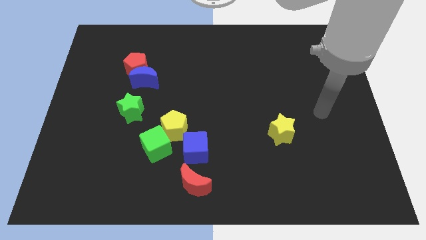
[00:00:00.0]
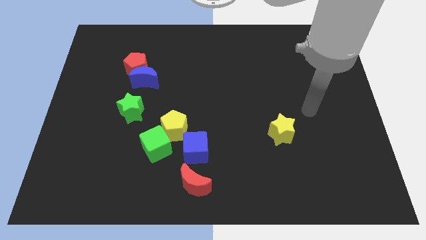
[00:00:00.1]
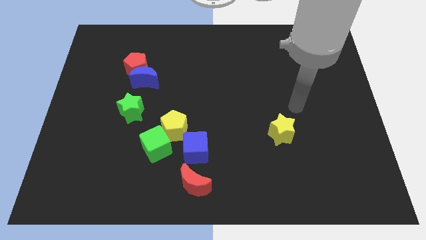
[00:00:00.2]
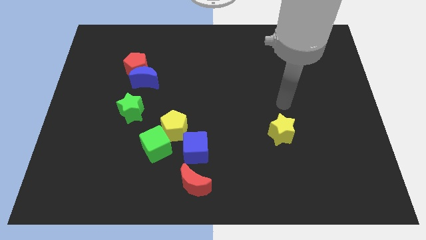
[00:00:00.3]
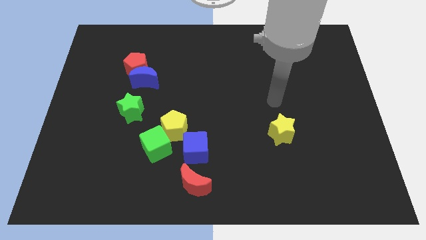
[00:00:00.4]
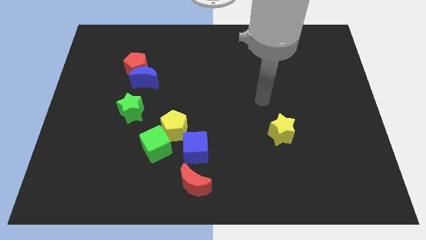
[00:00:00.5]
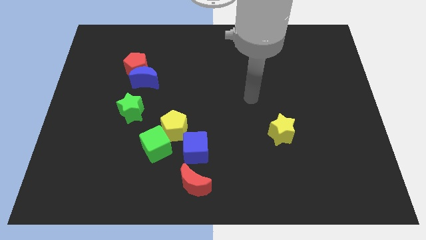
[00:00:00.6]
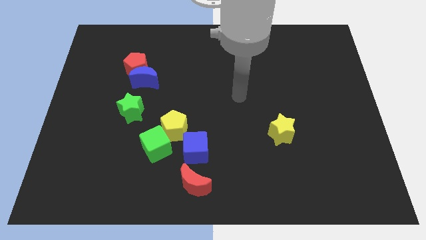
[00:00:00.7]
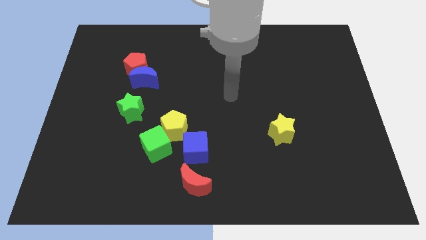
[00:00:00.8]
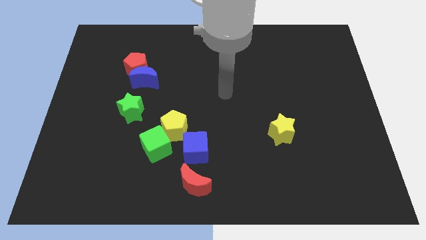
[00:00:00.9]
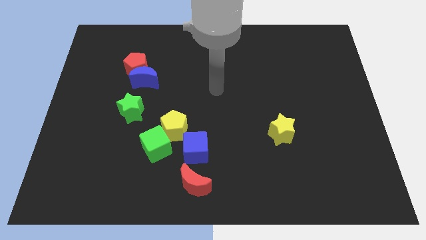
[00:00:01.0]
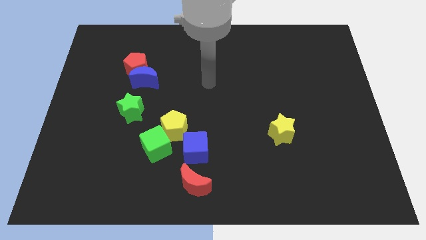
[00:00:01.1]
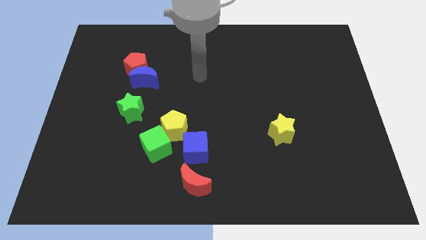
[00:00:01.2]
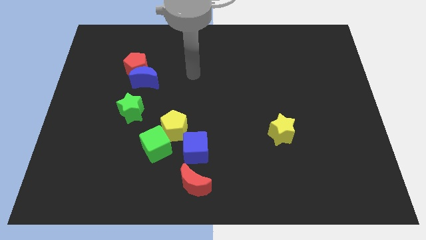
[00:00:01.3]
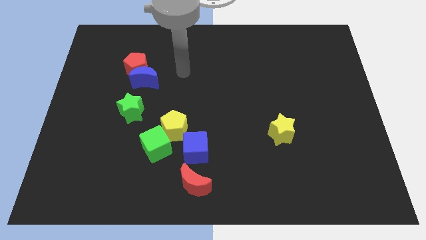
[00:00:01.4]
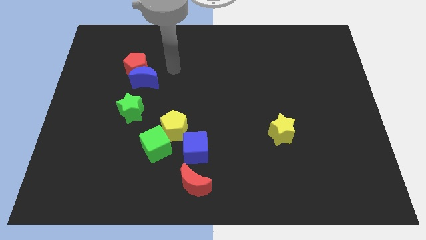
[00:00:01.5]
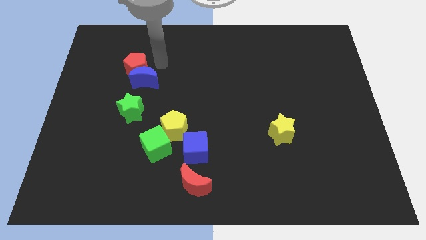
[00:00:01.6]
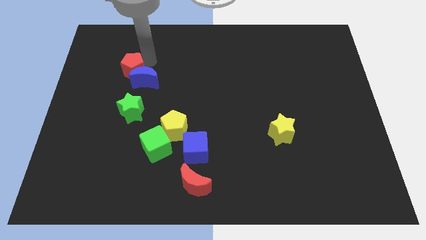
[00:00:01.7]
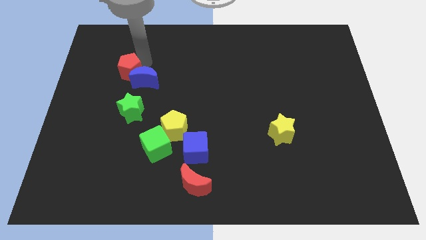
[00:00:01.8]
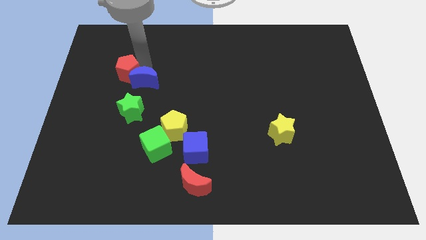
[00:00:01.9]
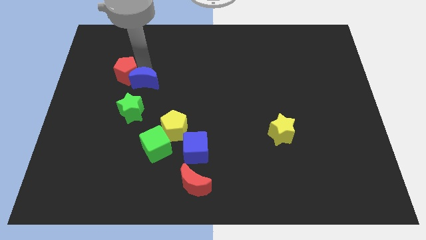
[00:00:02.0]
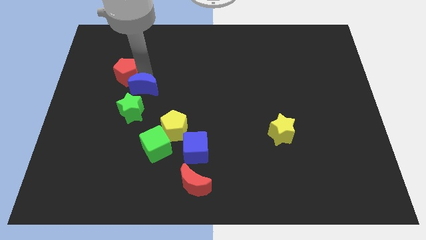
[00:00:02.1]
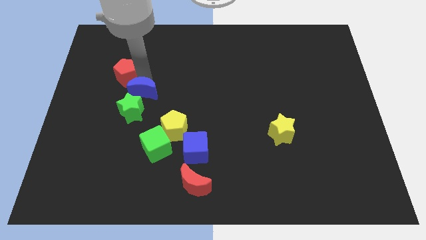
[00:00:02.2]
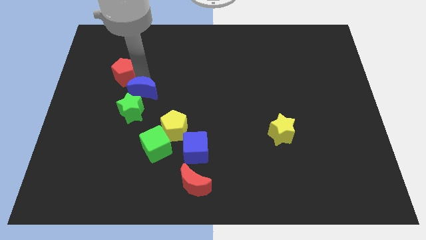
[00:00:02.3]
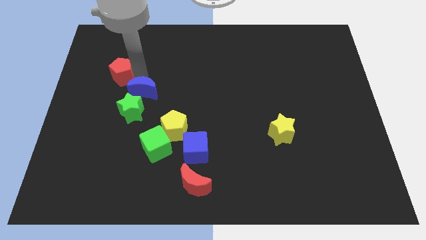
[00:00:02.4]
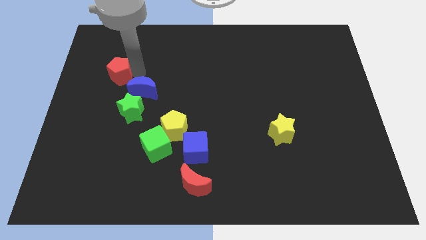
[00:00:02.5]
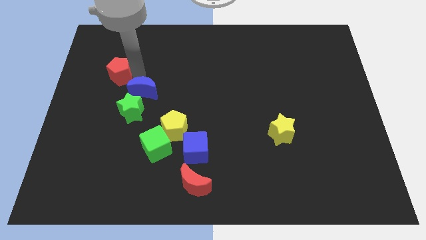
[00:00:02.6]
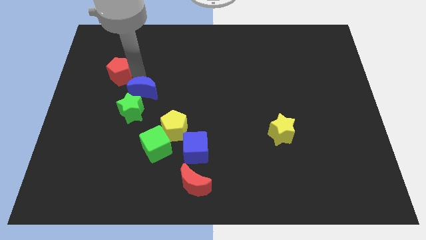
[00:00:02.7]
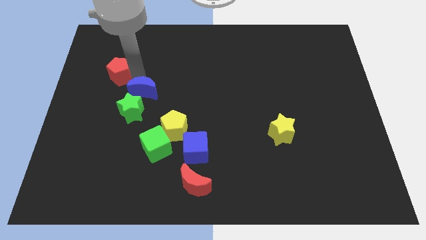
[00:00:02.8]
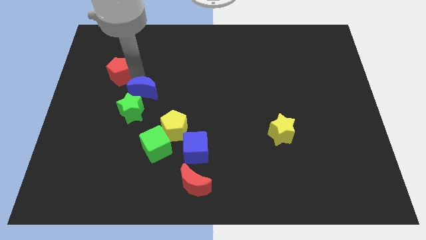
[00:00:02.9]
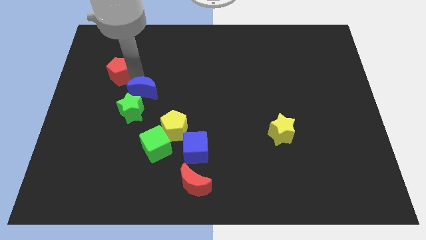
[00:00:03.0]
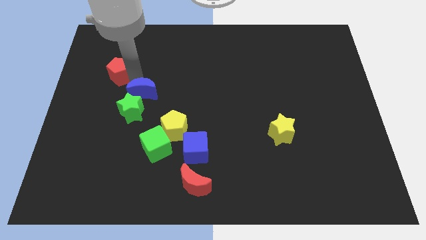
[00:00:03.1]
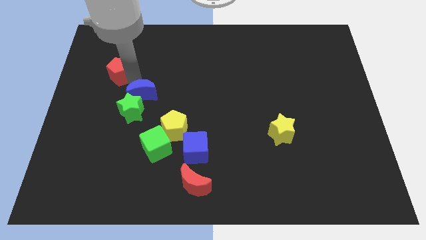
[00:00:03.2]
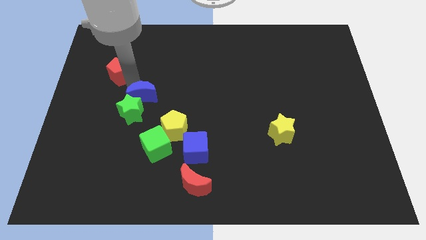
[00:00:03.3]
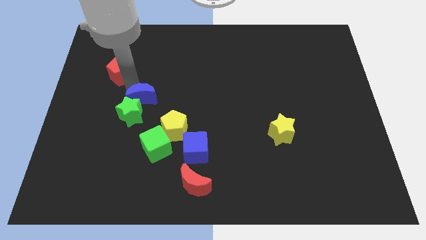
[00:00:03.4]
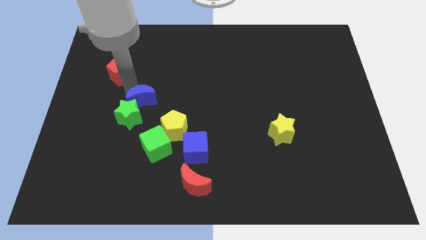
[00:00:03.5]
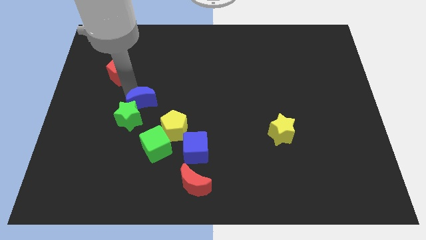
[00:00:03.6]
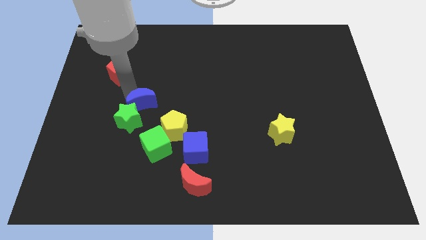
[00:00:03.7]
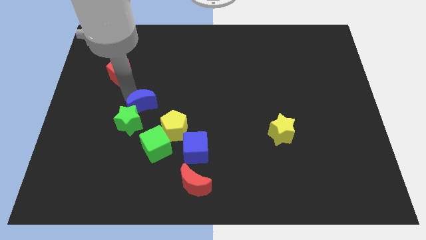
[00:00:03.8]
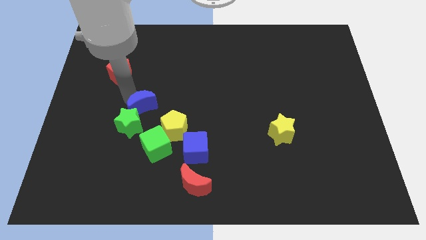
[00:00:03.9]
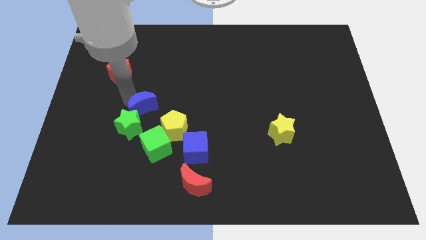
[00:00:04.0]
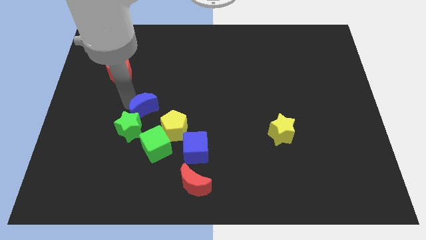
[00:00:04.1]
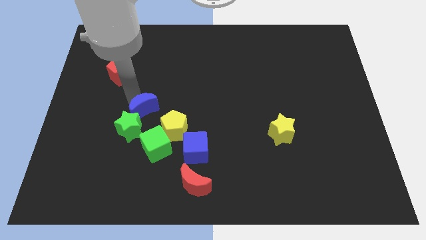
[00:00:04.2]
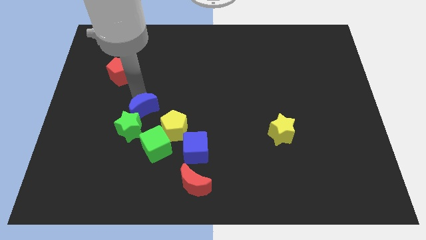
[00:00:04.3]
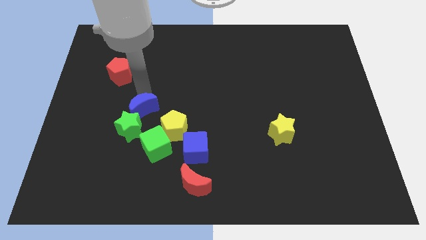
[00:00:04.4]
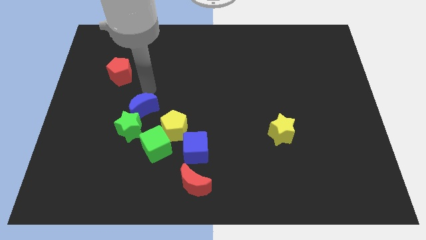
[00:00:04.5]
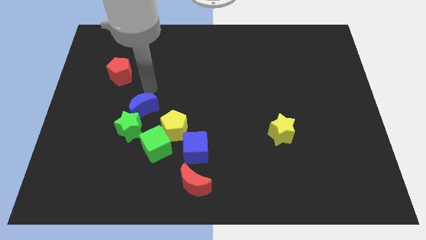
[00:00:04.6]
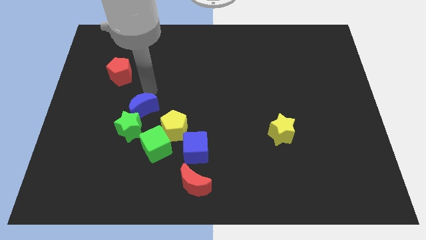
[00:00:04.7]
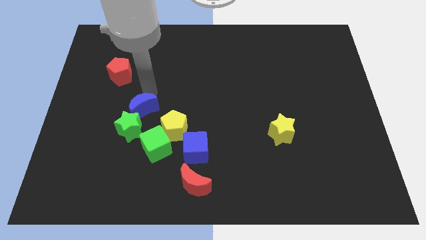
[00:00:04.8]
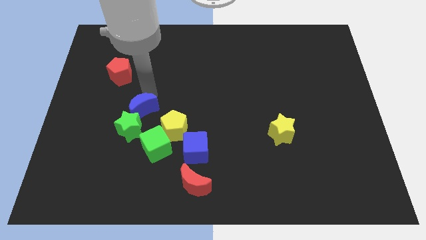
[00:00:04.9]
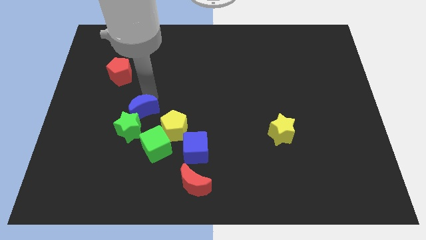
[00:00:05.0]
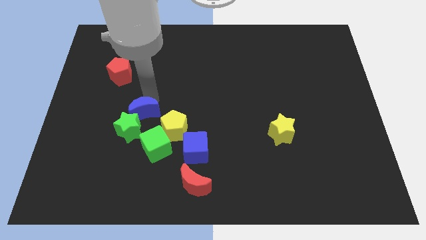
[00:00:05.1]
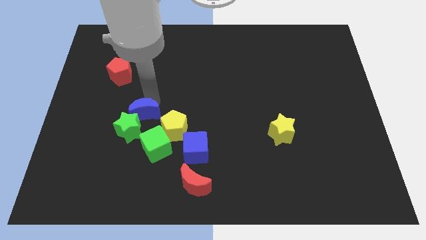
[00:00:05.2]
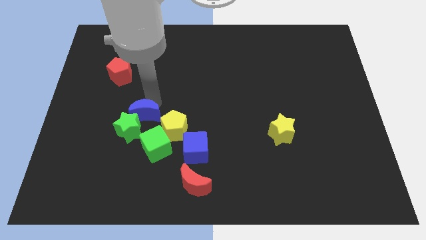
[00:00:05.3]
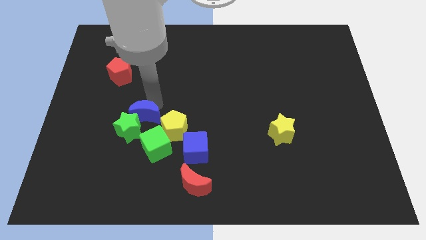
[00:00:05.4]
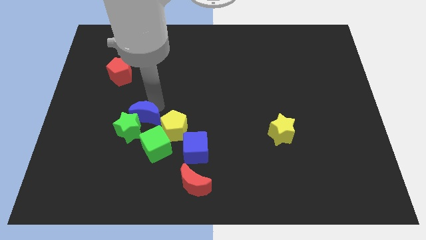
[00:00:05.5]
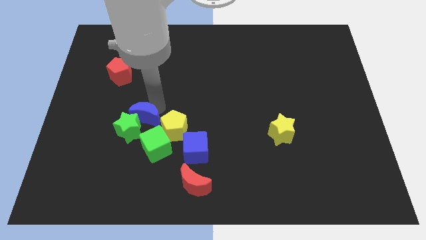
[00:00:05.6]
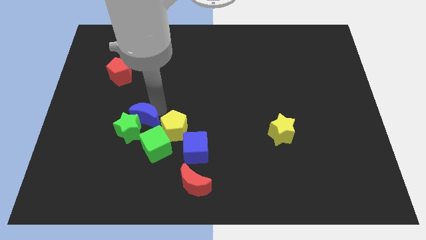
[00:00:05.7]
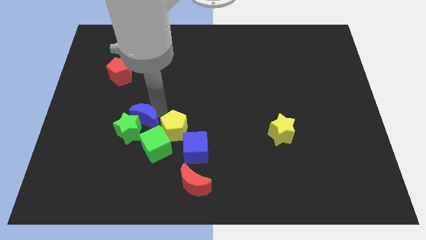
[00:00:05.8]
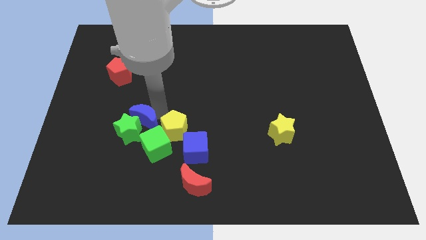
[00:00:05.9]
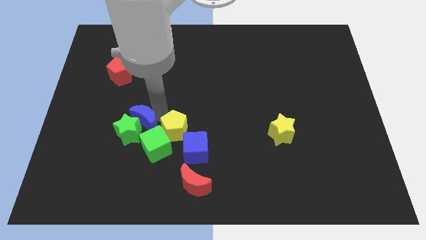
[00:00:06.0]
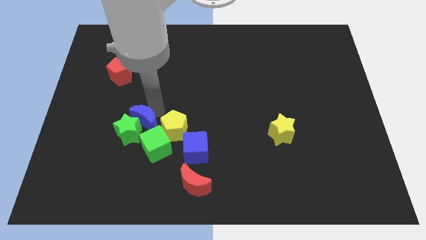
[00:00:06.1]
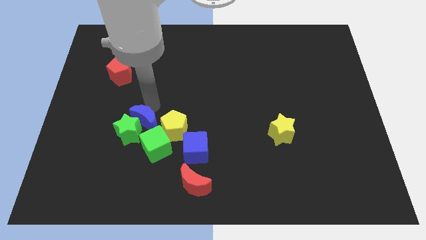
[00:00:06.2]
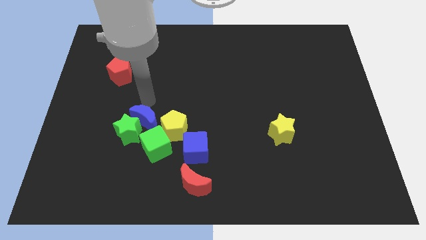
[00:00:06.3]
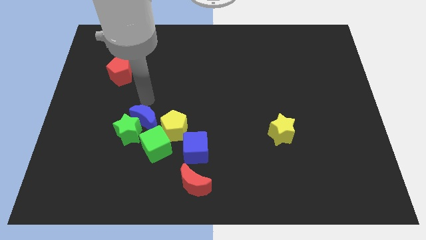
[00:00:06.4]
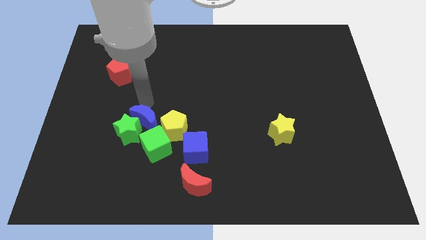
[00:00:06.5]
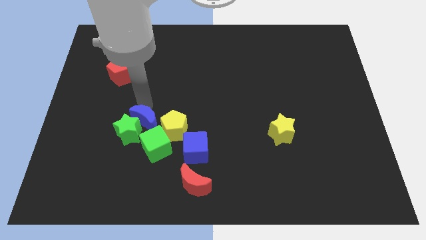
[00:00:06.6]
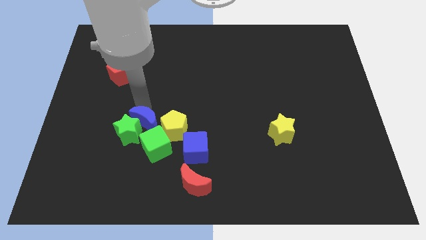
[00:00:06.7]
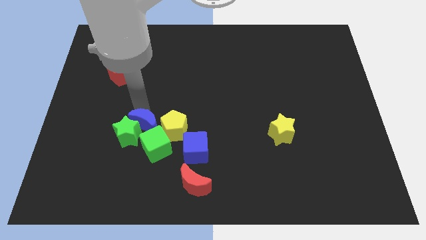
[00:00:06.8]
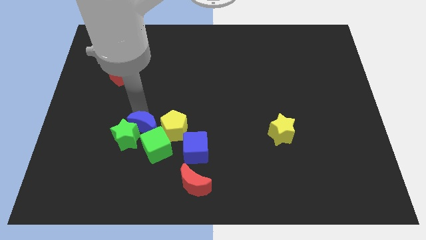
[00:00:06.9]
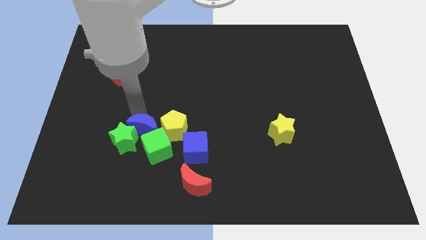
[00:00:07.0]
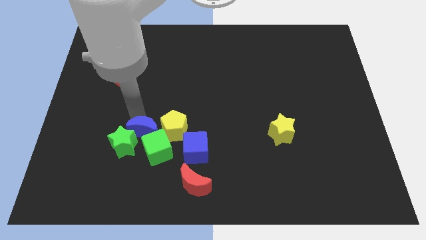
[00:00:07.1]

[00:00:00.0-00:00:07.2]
slide the blue moon to the left of the blue cube

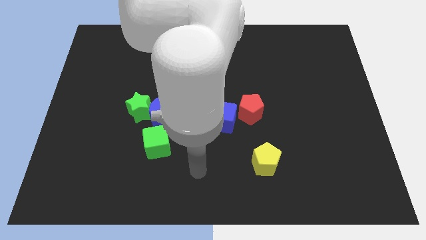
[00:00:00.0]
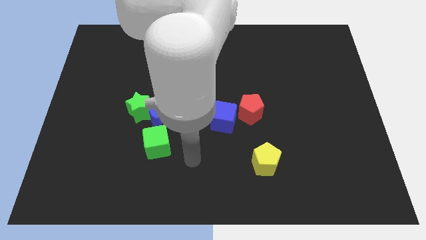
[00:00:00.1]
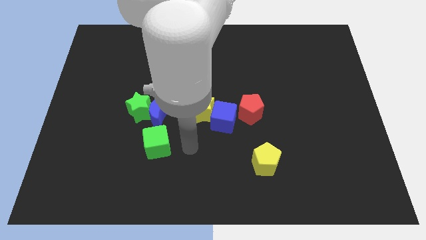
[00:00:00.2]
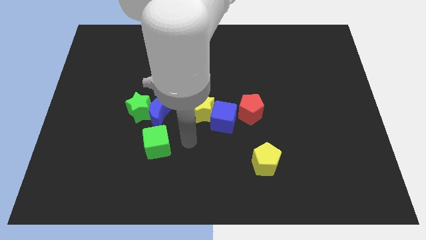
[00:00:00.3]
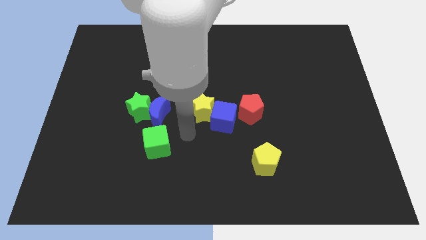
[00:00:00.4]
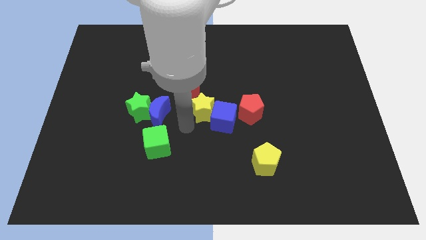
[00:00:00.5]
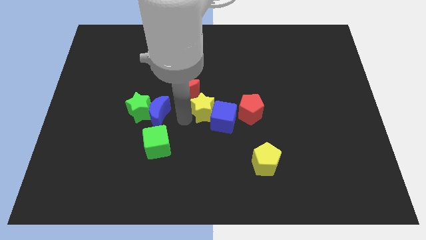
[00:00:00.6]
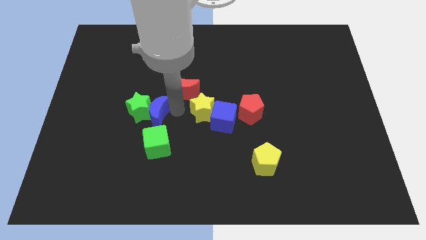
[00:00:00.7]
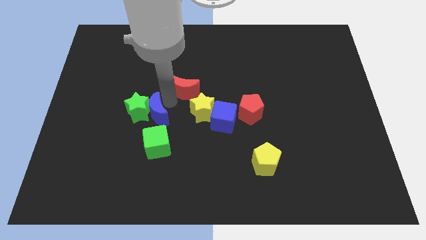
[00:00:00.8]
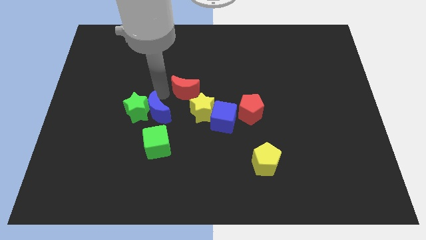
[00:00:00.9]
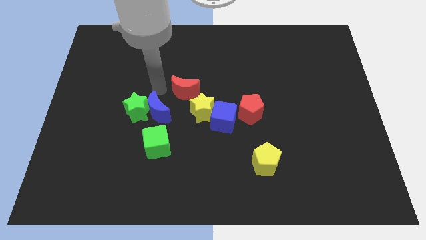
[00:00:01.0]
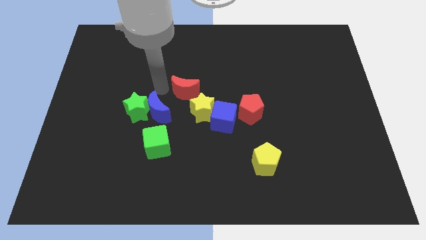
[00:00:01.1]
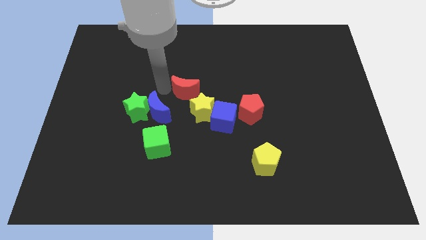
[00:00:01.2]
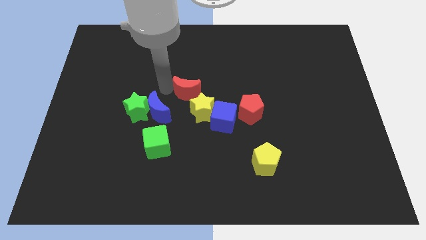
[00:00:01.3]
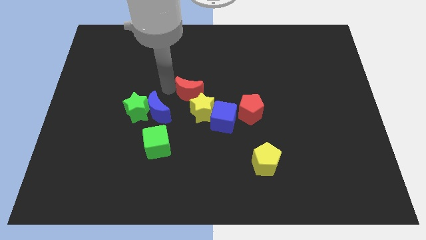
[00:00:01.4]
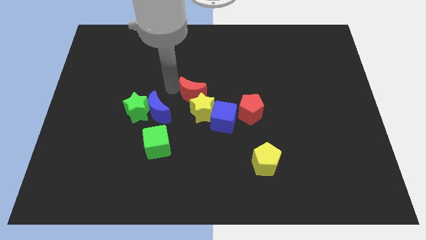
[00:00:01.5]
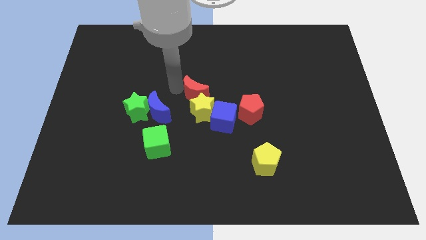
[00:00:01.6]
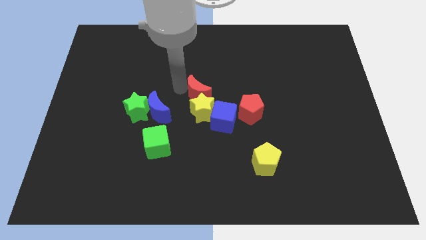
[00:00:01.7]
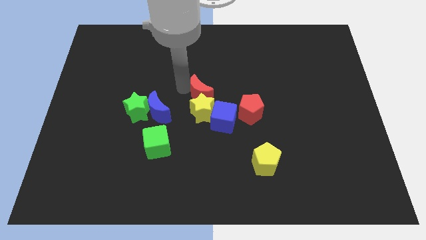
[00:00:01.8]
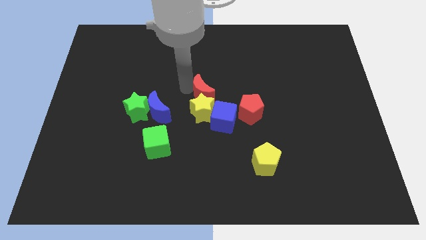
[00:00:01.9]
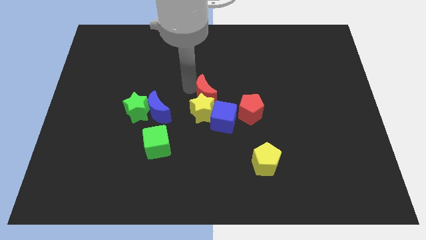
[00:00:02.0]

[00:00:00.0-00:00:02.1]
move the red moon diagonally up and to the left of the red pentagon
